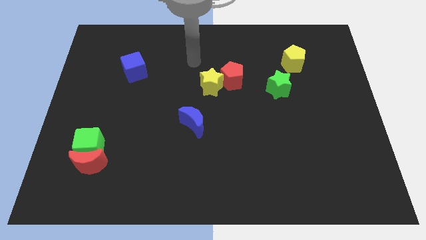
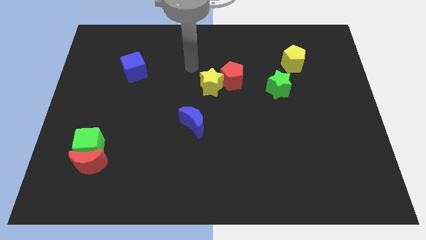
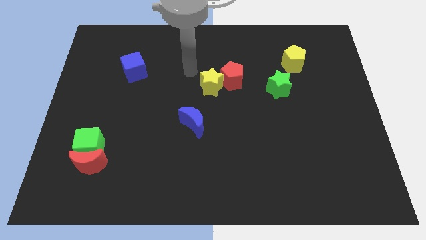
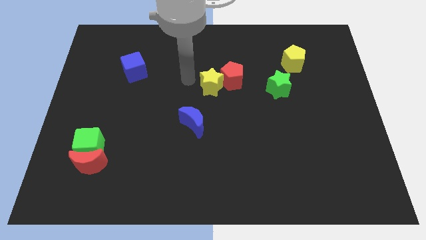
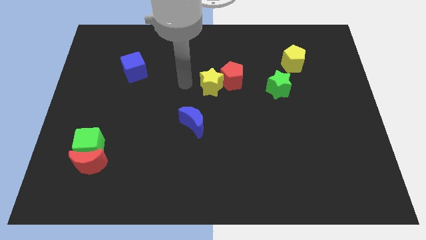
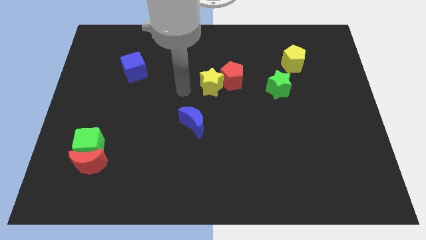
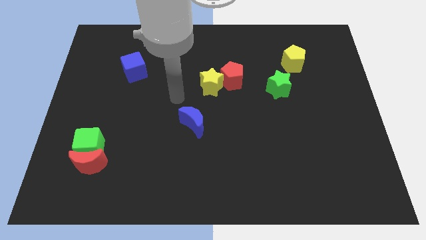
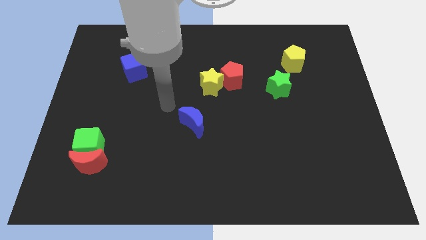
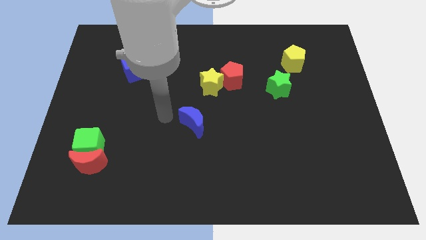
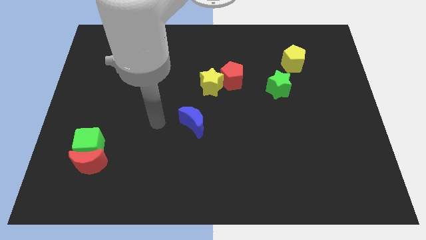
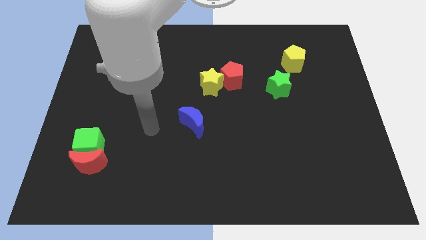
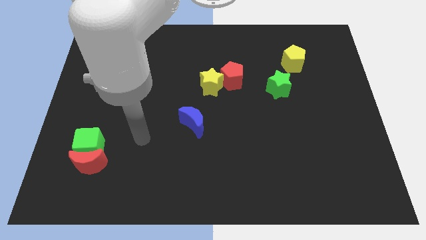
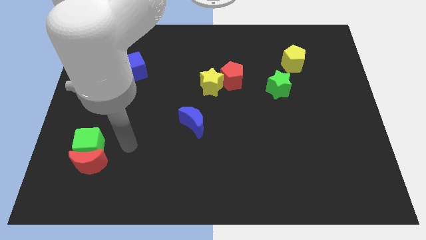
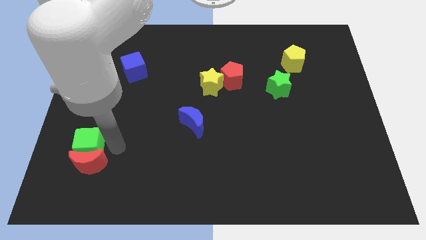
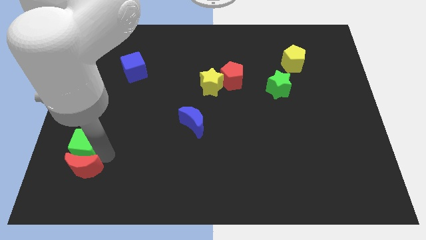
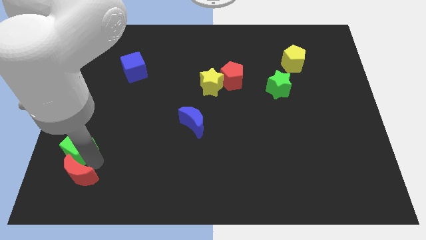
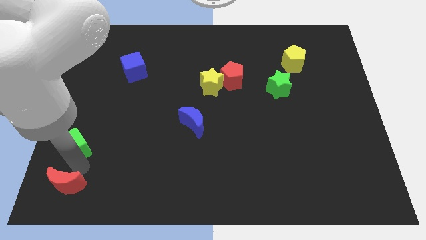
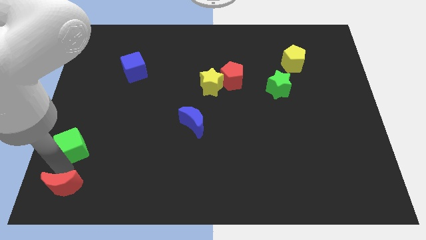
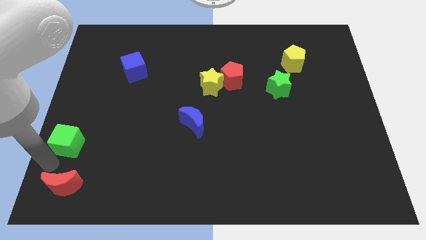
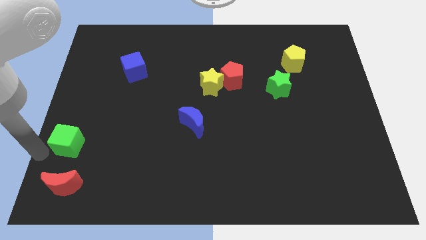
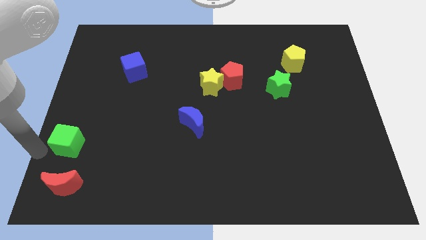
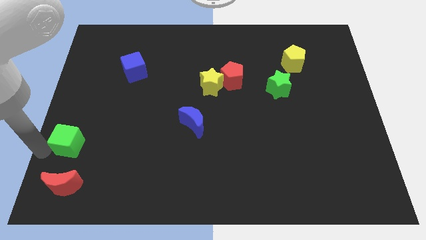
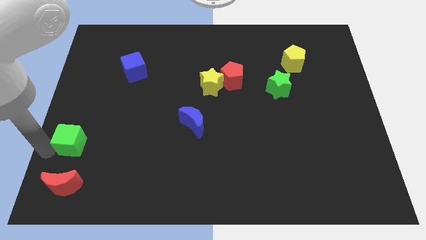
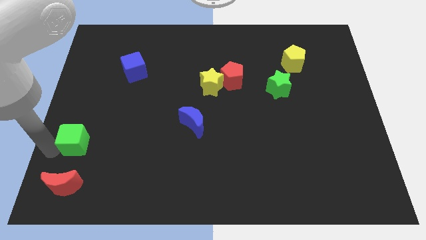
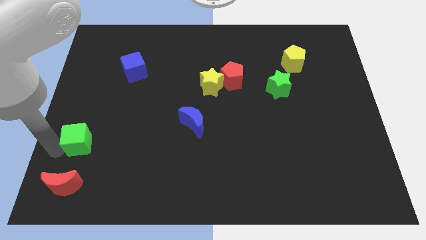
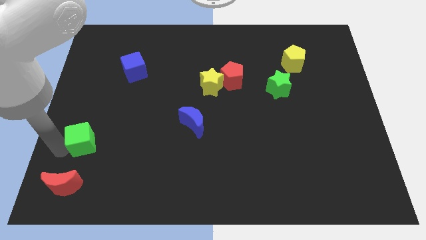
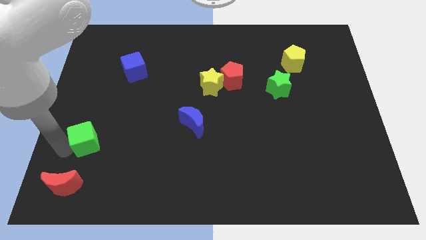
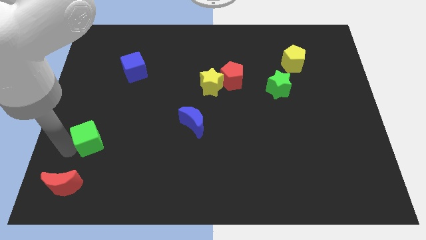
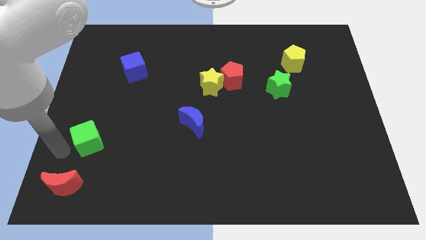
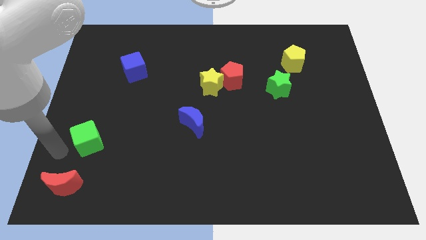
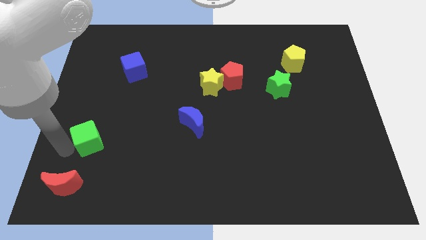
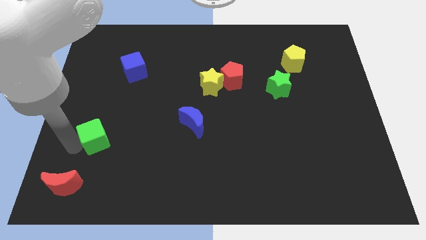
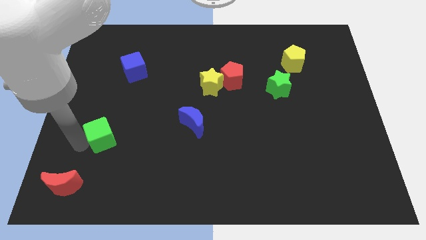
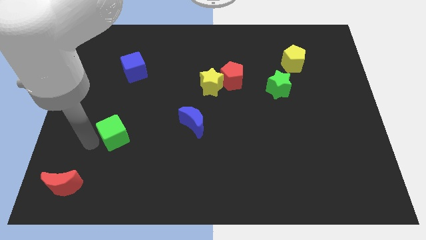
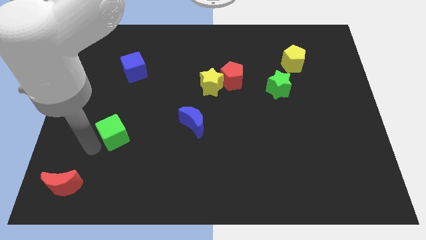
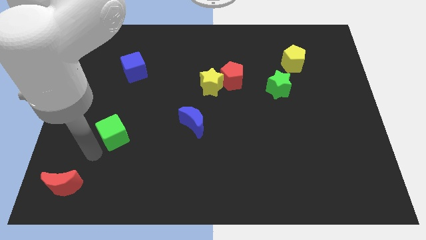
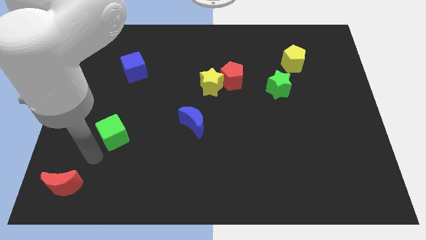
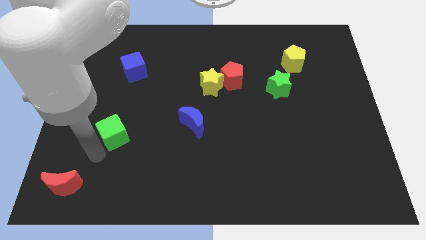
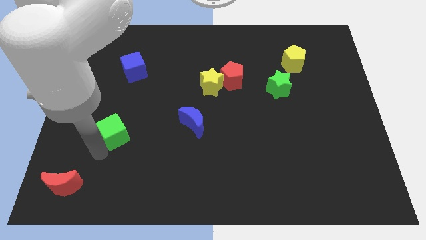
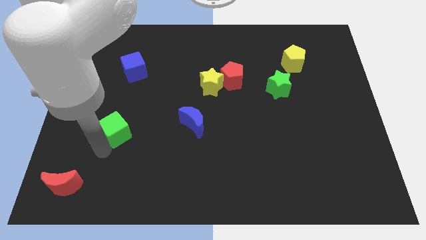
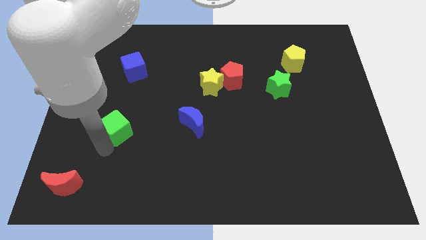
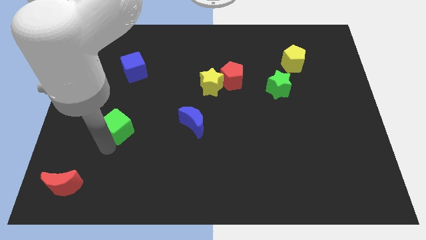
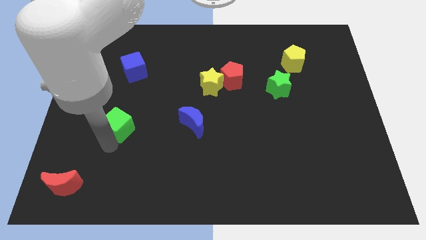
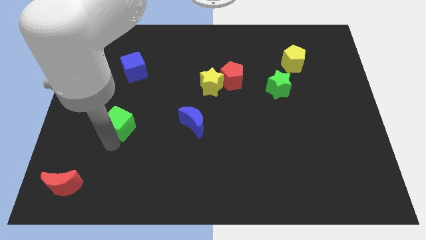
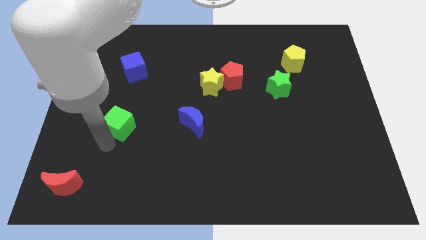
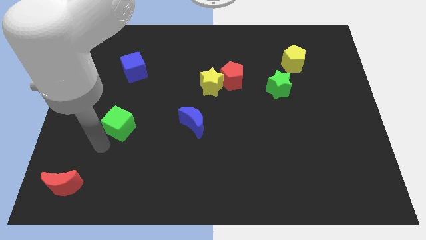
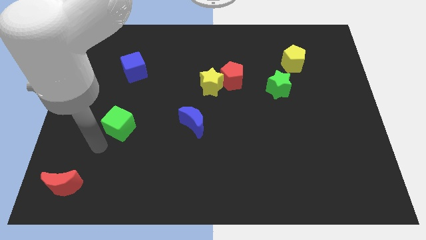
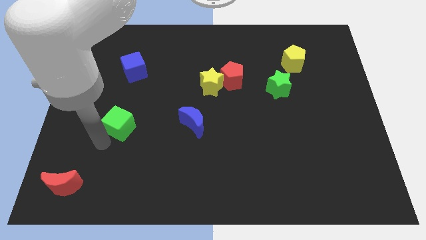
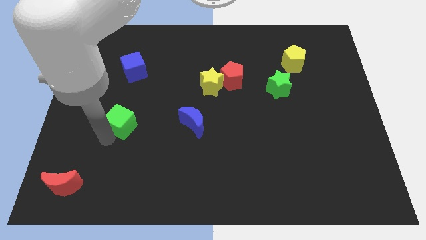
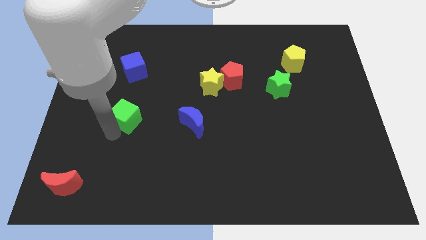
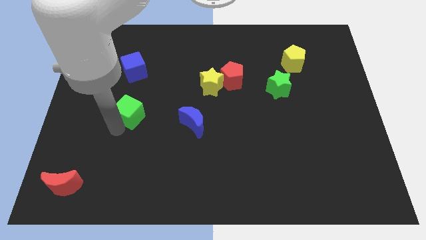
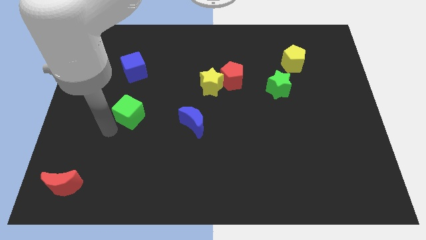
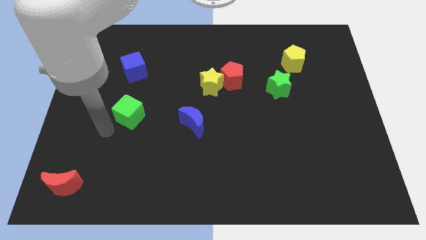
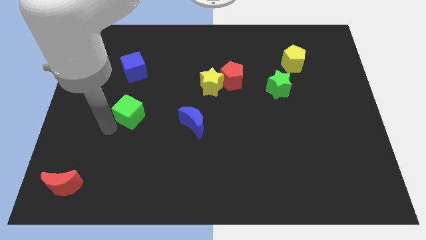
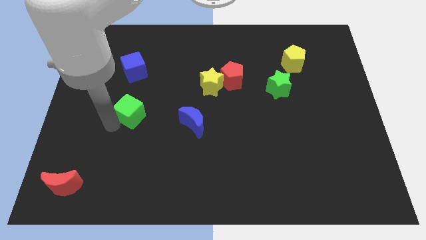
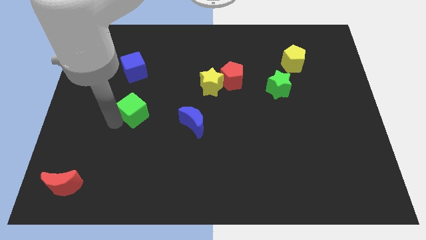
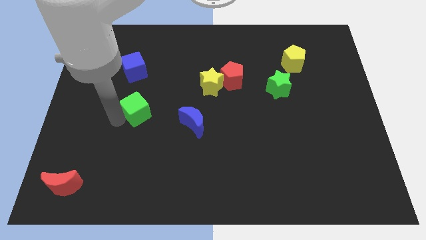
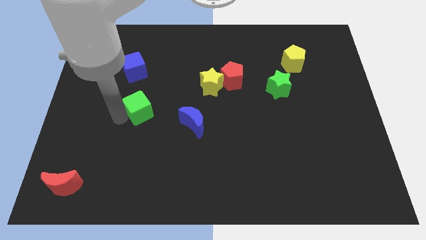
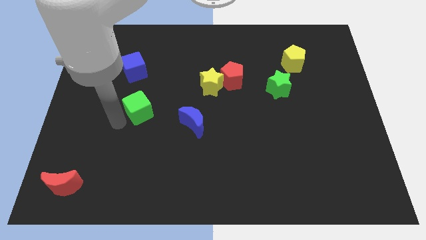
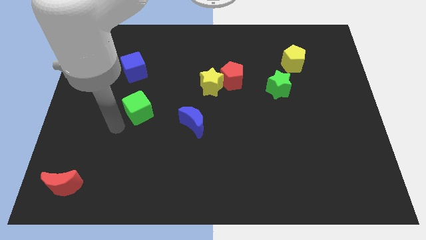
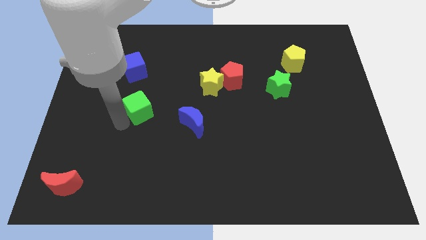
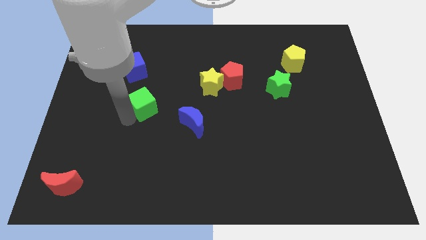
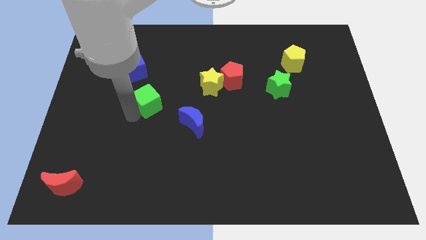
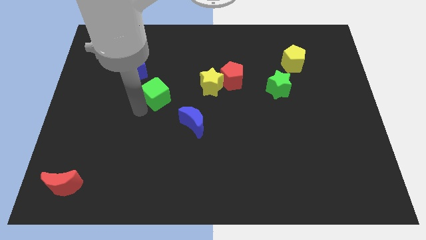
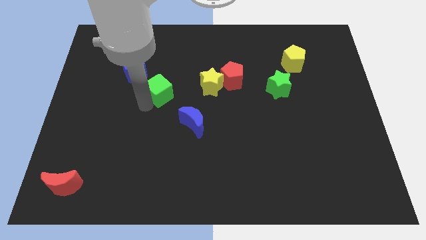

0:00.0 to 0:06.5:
push the green cube upwards and then right

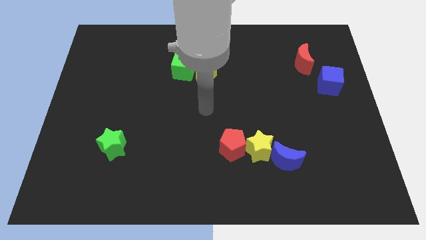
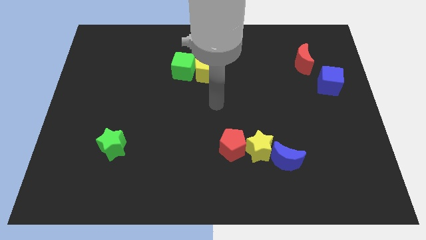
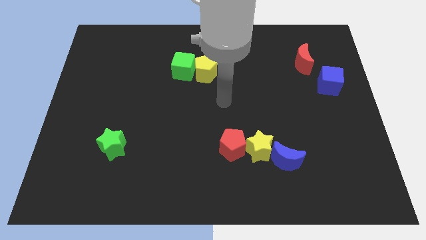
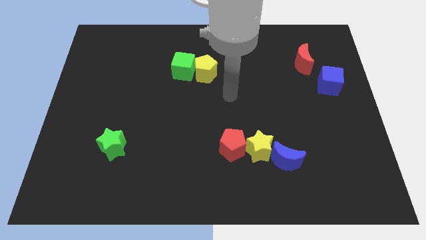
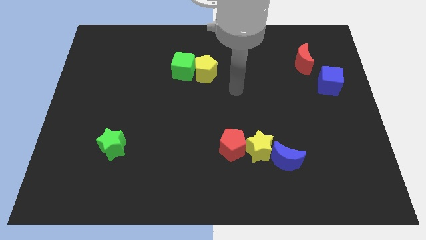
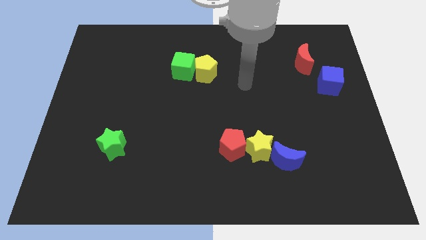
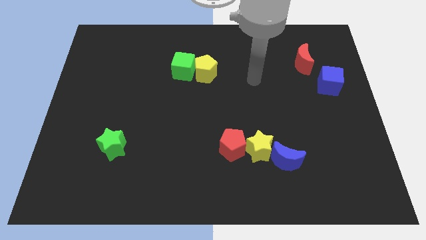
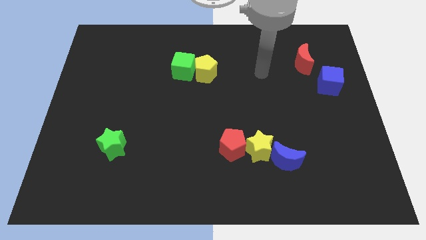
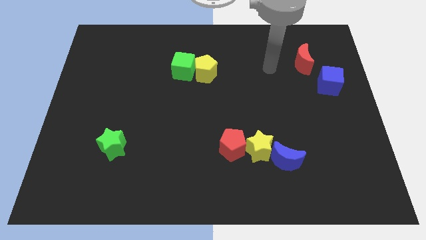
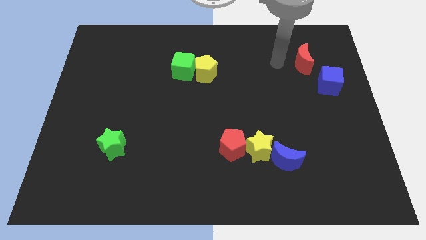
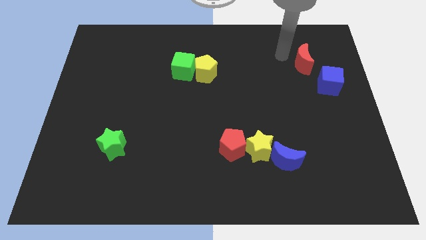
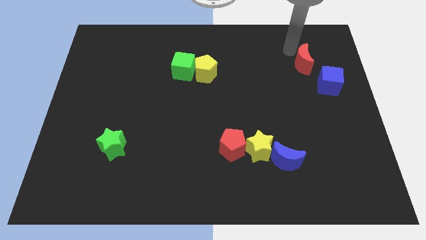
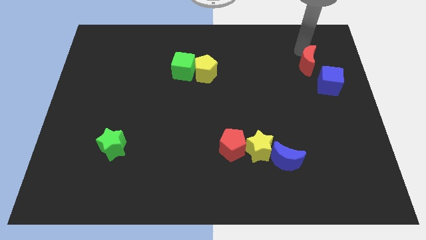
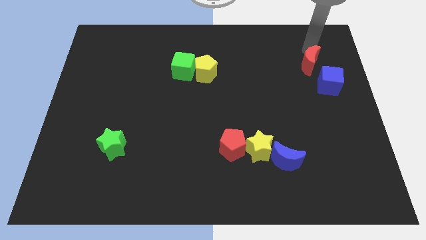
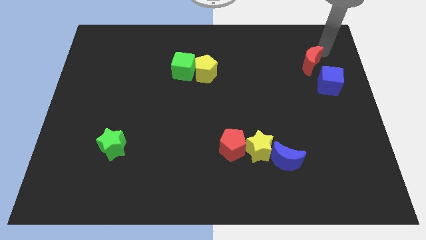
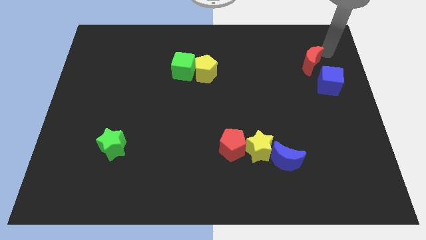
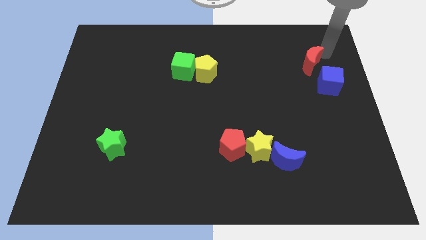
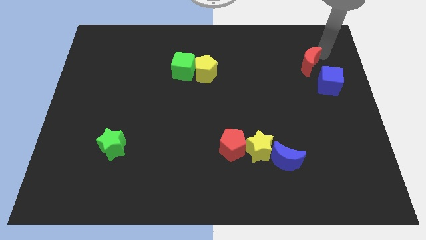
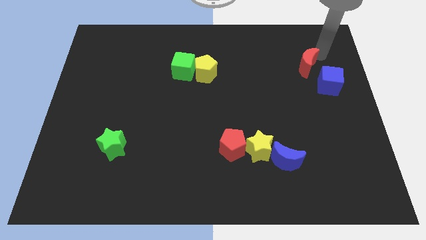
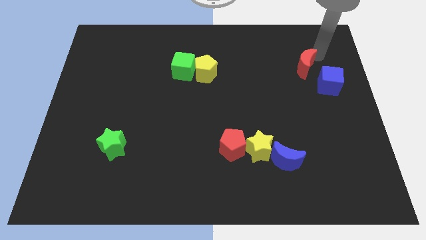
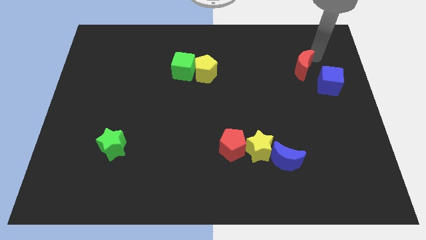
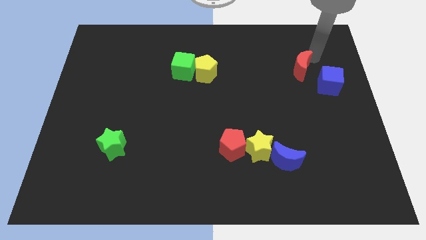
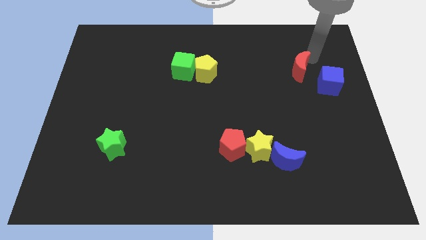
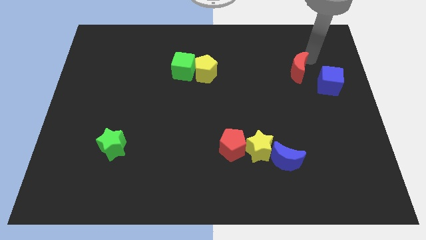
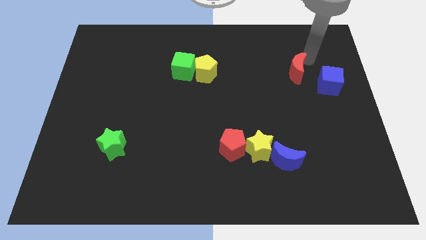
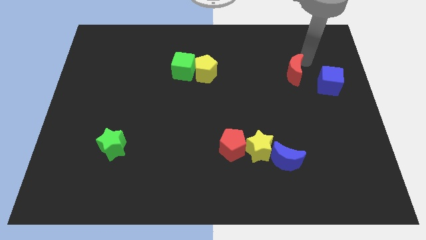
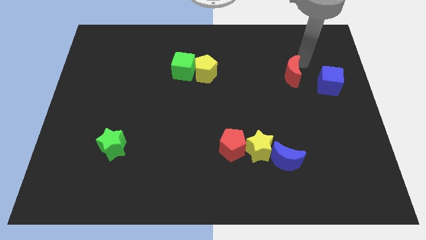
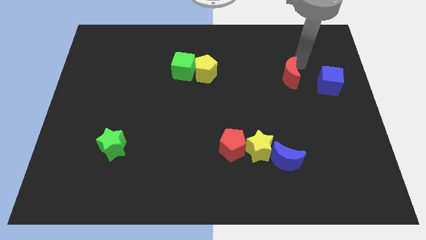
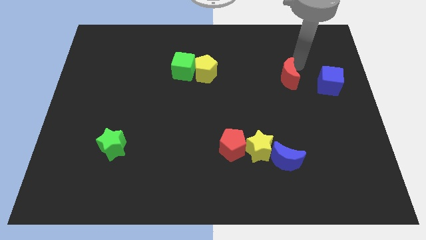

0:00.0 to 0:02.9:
slightly slide the red moon diagonally down and to the left
